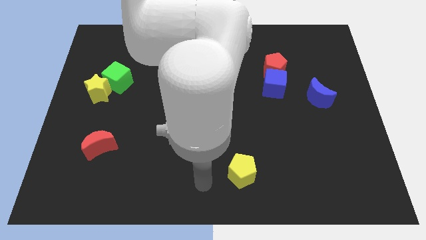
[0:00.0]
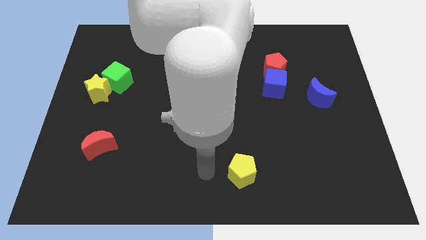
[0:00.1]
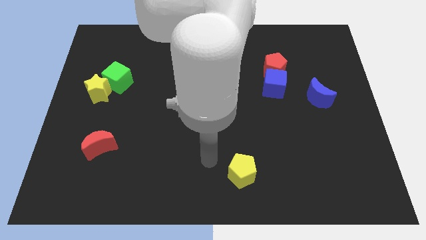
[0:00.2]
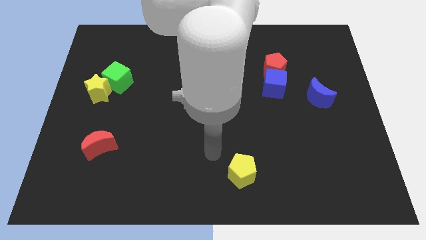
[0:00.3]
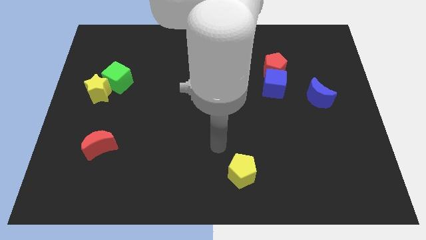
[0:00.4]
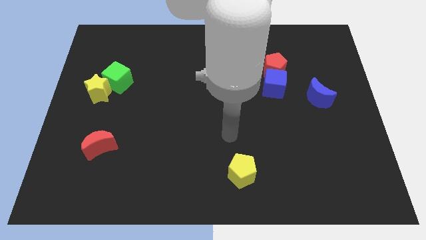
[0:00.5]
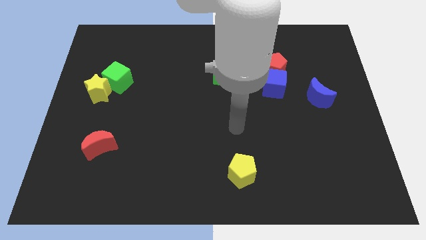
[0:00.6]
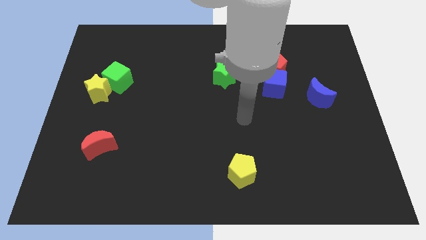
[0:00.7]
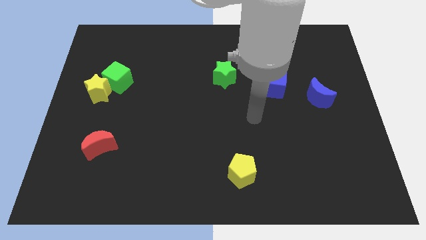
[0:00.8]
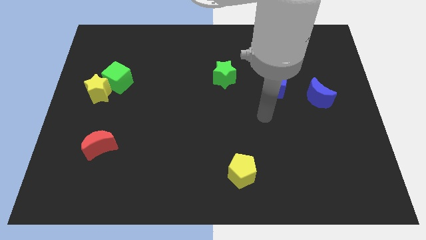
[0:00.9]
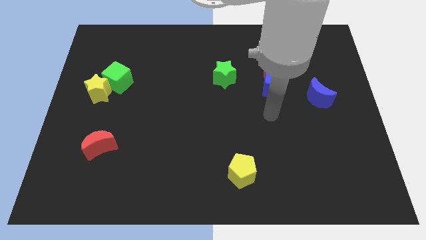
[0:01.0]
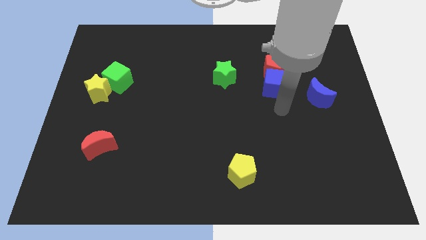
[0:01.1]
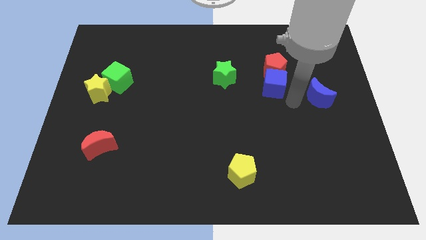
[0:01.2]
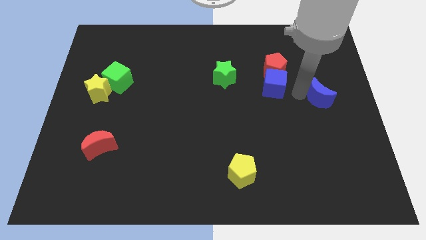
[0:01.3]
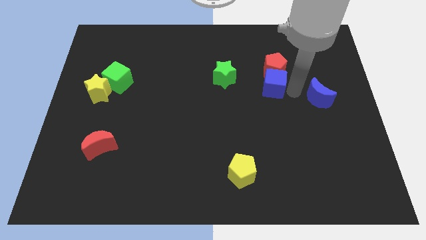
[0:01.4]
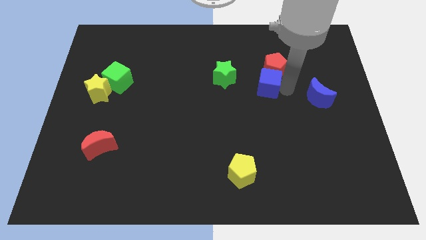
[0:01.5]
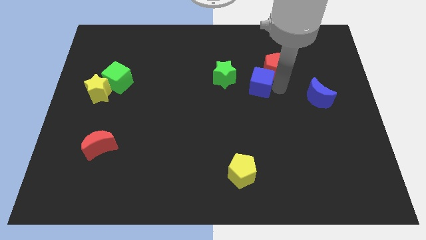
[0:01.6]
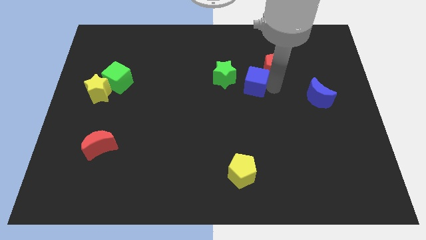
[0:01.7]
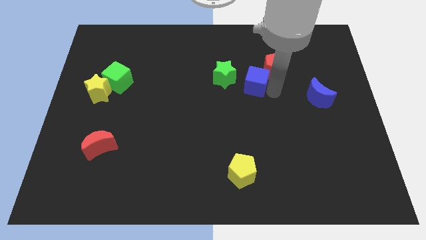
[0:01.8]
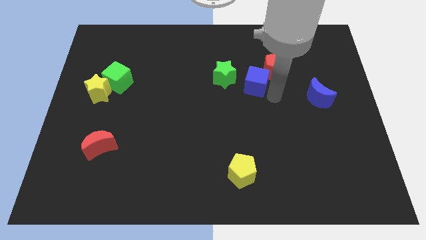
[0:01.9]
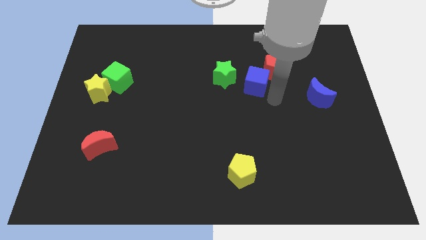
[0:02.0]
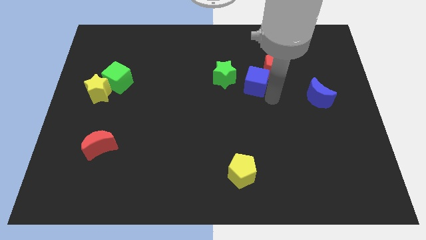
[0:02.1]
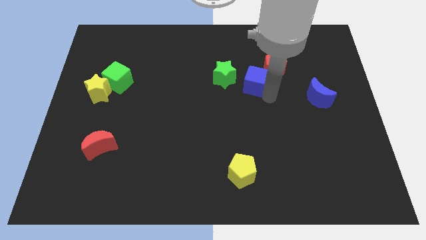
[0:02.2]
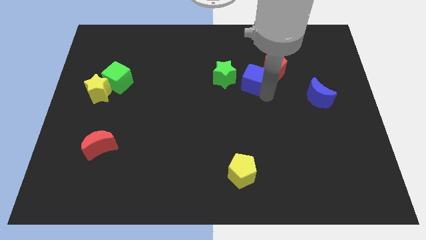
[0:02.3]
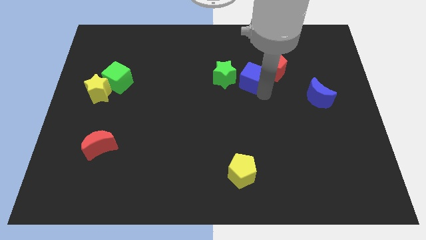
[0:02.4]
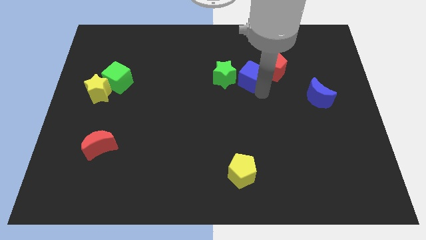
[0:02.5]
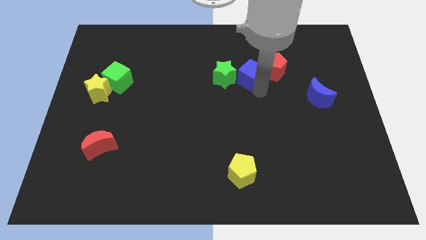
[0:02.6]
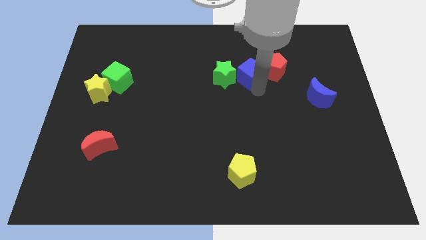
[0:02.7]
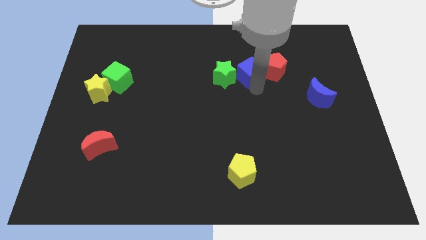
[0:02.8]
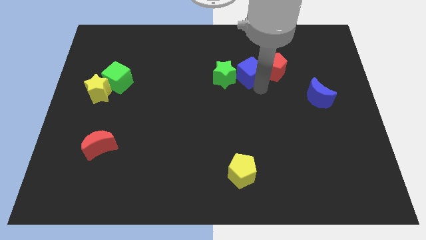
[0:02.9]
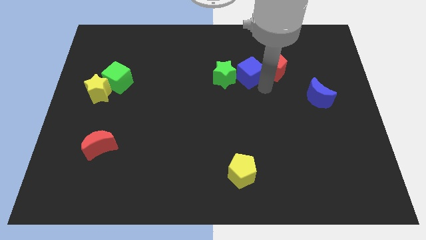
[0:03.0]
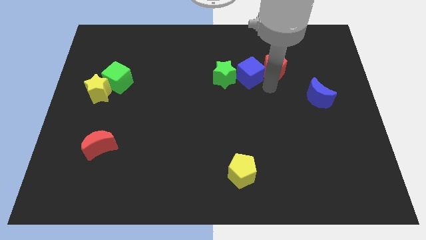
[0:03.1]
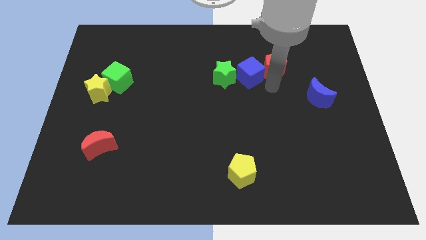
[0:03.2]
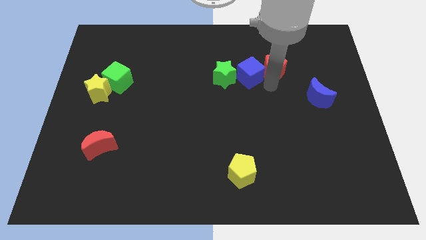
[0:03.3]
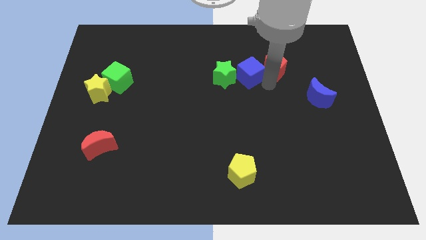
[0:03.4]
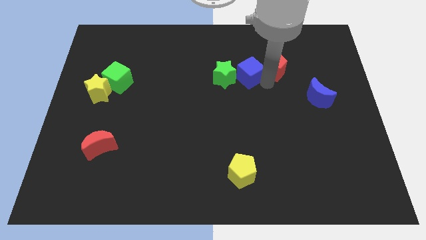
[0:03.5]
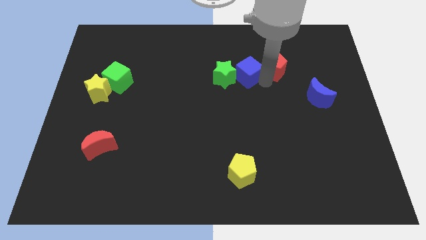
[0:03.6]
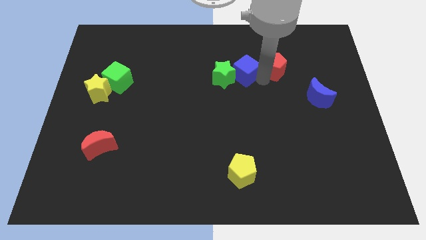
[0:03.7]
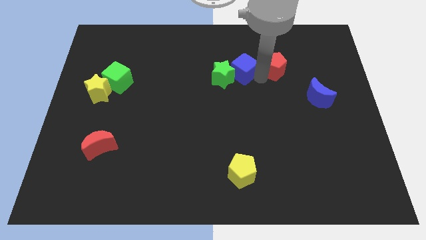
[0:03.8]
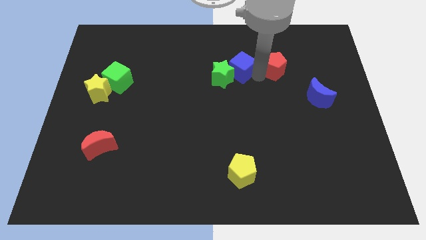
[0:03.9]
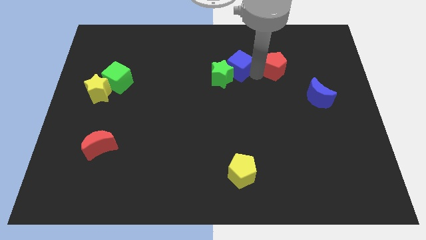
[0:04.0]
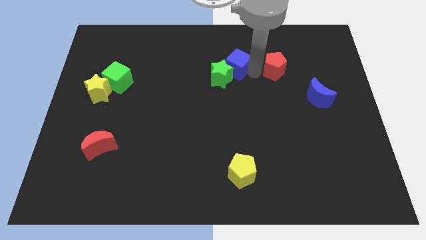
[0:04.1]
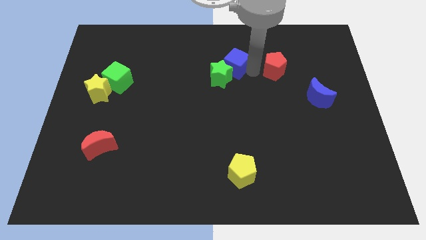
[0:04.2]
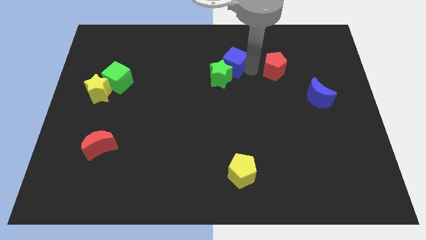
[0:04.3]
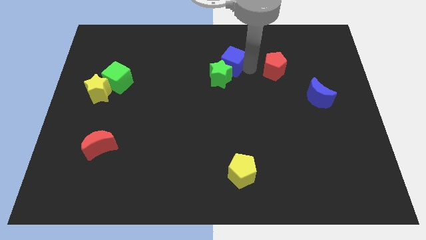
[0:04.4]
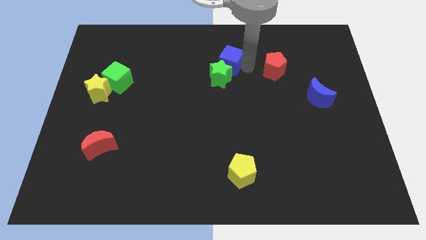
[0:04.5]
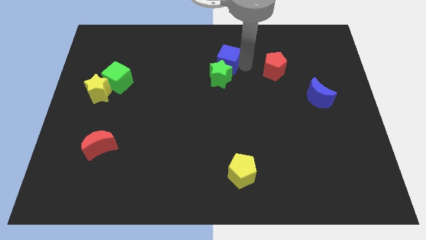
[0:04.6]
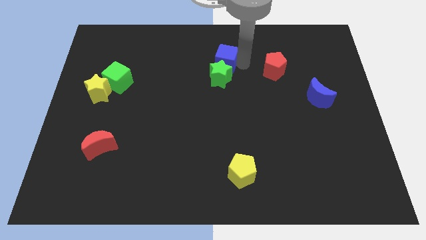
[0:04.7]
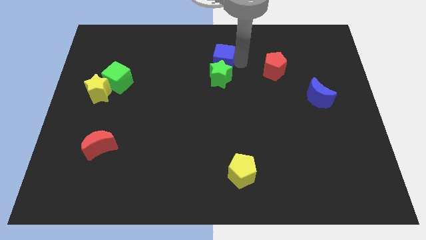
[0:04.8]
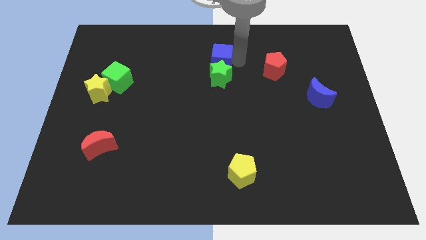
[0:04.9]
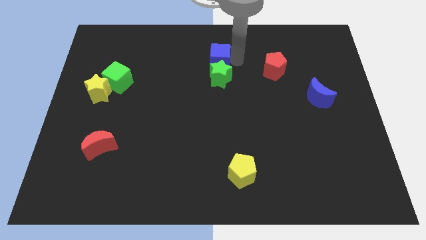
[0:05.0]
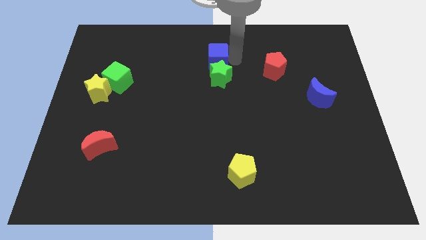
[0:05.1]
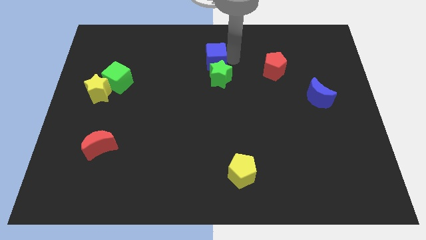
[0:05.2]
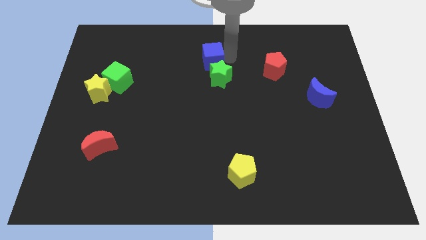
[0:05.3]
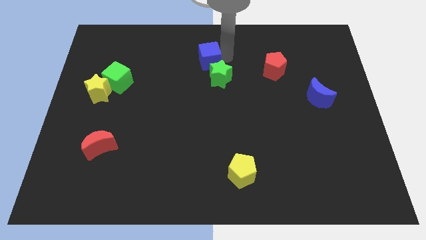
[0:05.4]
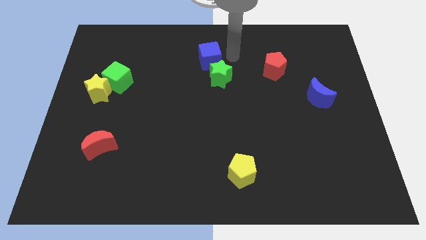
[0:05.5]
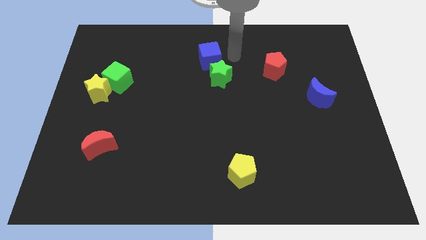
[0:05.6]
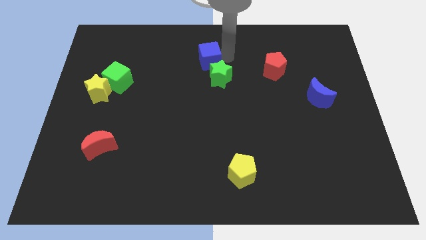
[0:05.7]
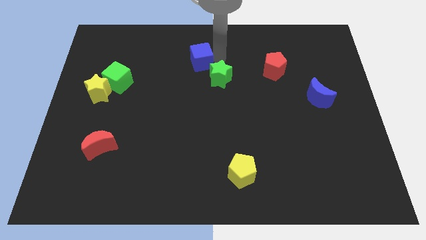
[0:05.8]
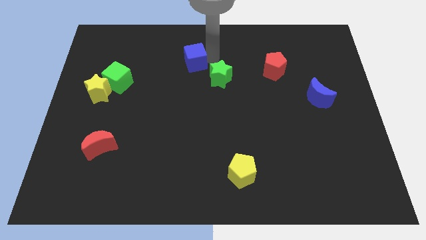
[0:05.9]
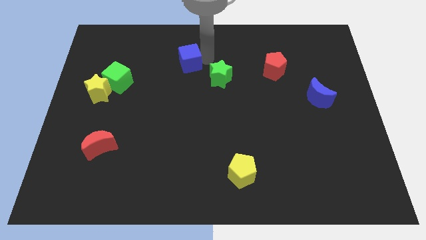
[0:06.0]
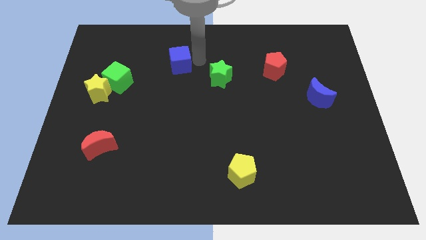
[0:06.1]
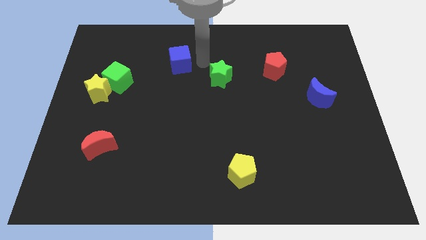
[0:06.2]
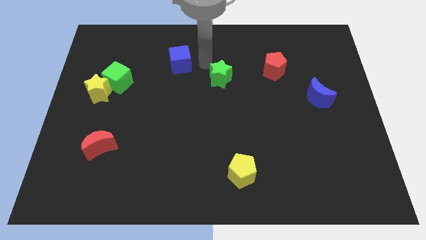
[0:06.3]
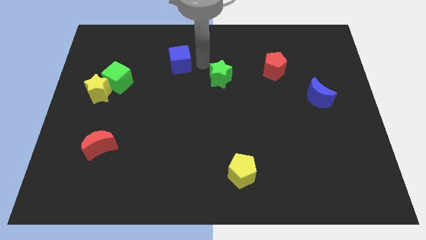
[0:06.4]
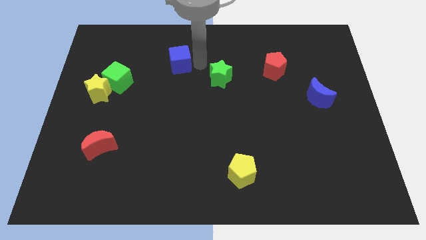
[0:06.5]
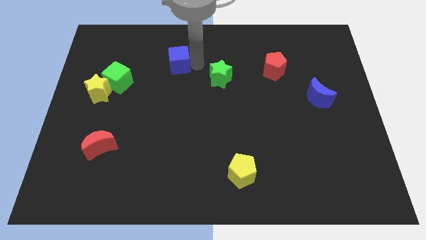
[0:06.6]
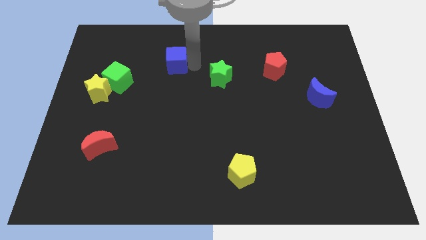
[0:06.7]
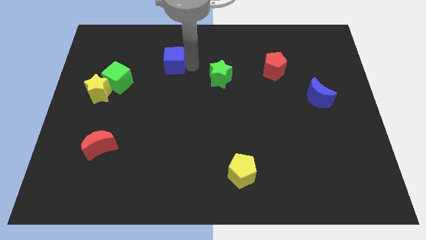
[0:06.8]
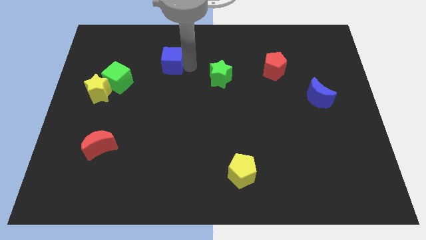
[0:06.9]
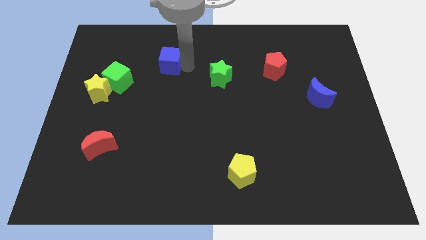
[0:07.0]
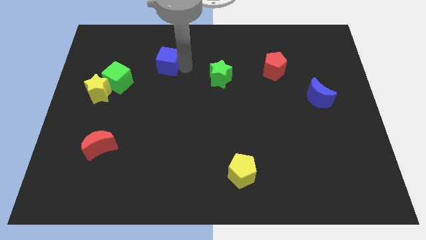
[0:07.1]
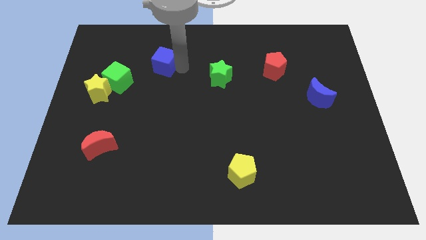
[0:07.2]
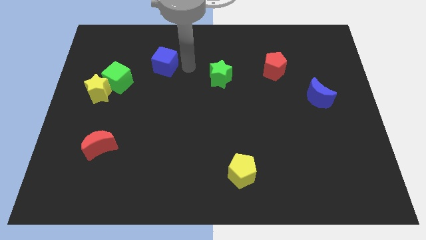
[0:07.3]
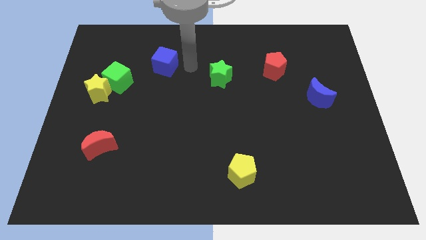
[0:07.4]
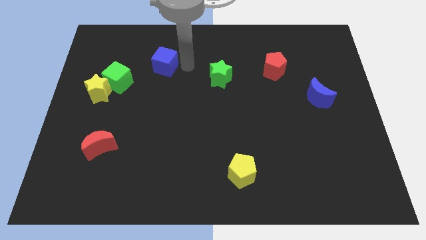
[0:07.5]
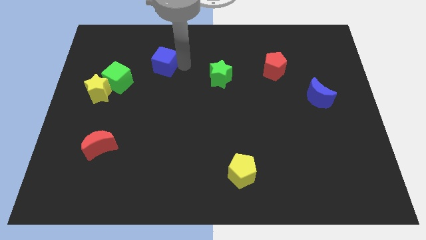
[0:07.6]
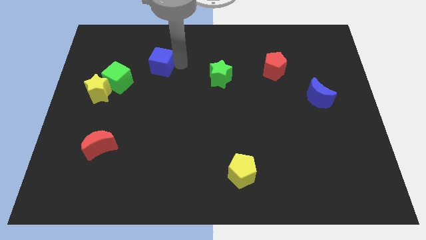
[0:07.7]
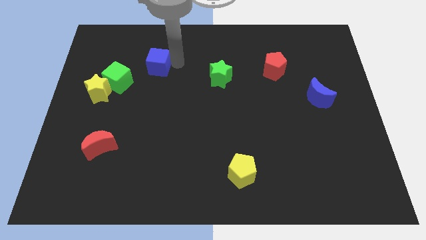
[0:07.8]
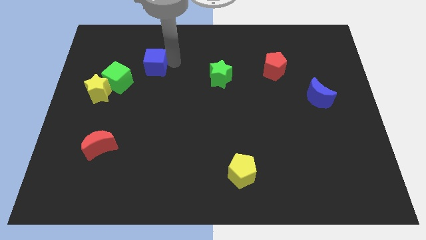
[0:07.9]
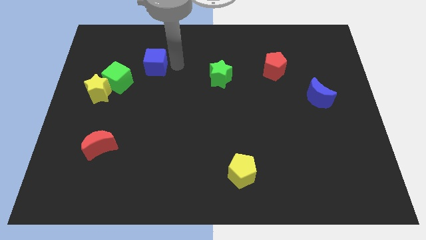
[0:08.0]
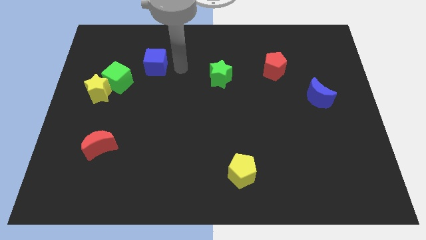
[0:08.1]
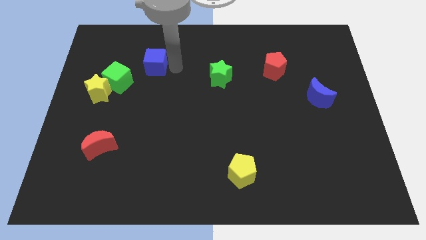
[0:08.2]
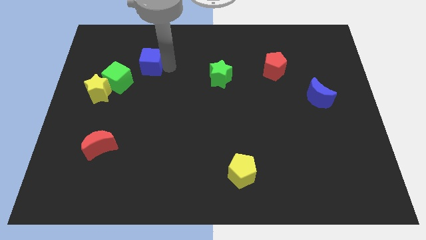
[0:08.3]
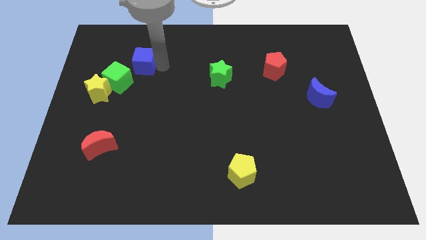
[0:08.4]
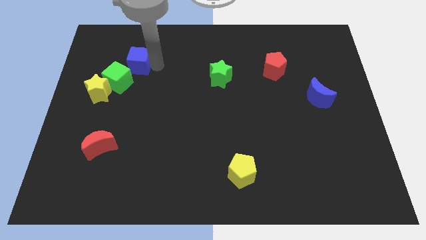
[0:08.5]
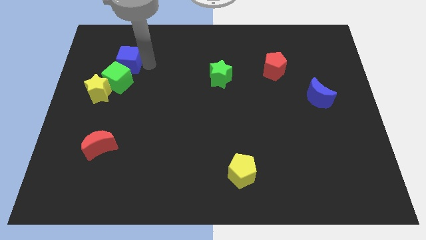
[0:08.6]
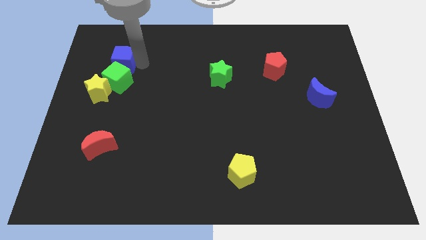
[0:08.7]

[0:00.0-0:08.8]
move the blue cube to the top of the yellow star
